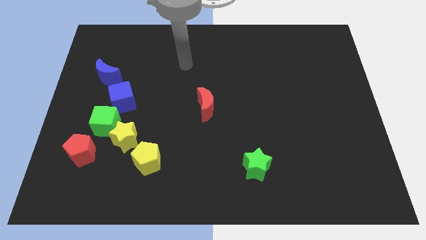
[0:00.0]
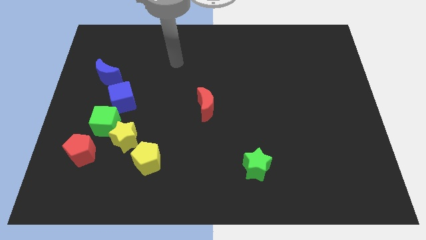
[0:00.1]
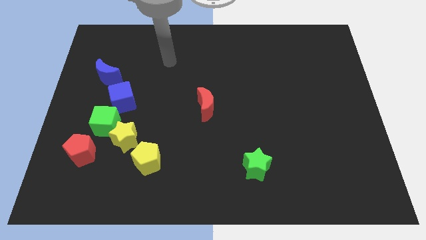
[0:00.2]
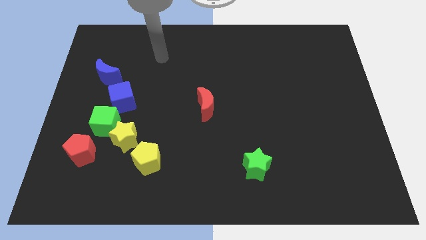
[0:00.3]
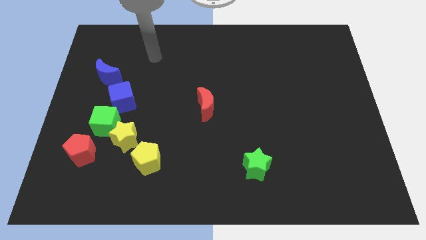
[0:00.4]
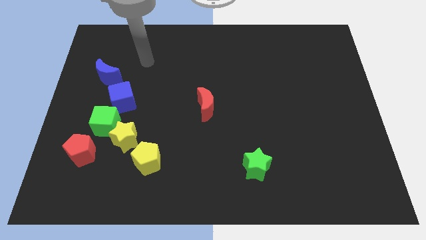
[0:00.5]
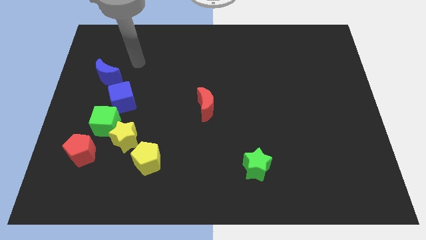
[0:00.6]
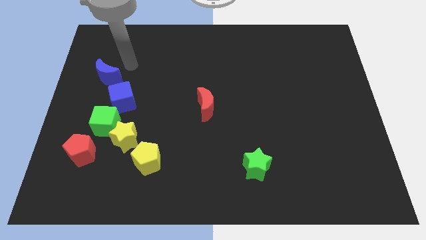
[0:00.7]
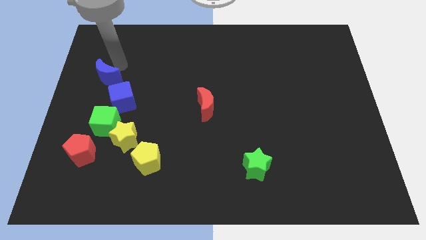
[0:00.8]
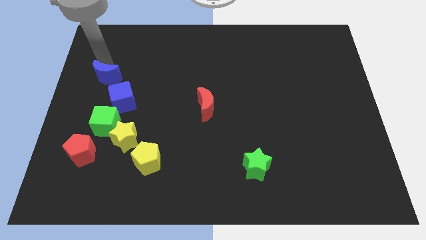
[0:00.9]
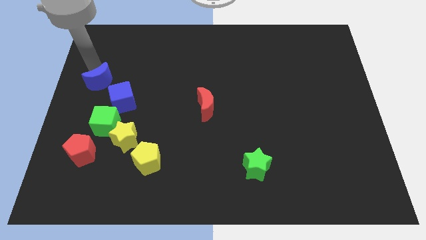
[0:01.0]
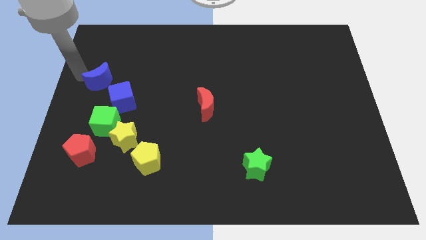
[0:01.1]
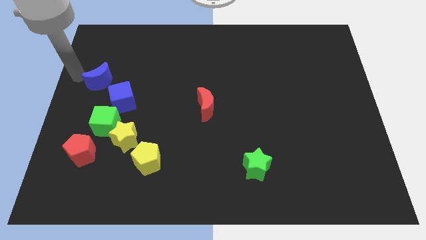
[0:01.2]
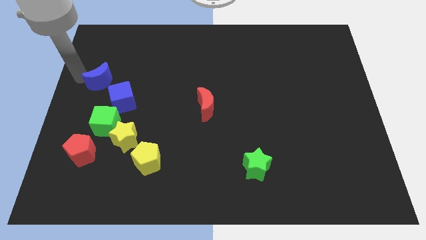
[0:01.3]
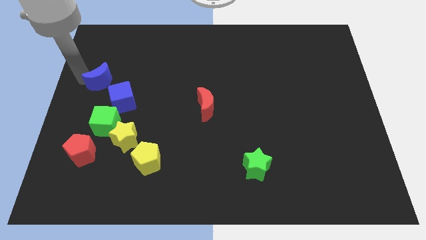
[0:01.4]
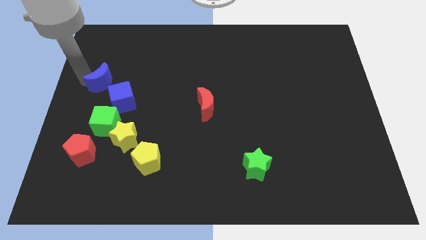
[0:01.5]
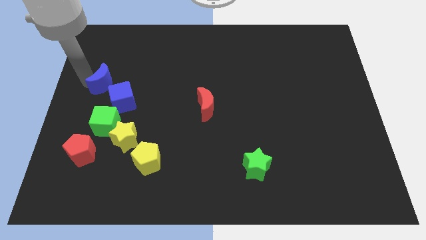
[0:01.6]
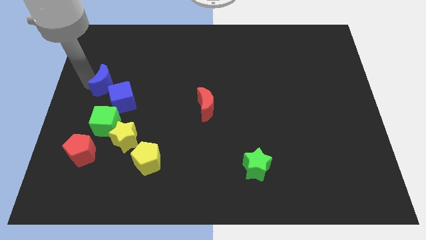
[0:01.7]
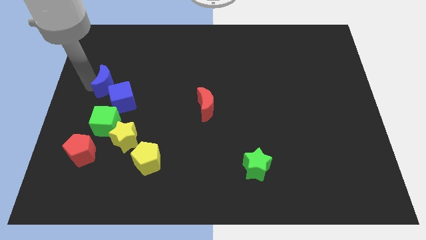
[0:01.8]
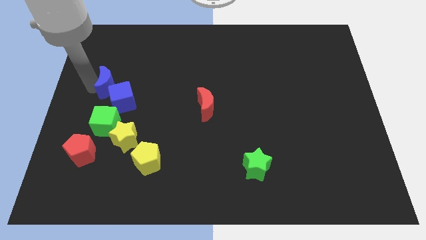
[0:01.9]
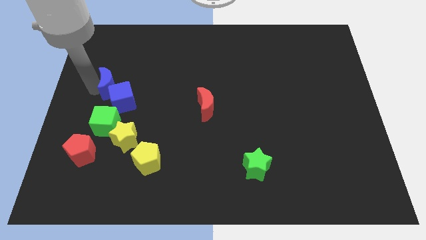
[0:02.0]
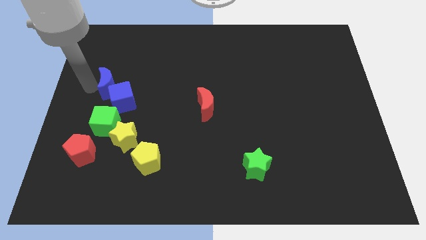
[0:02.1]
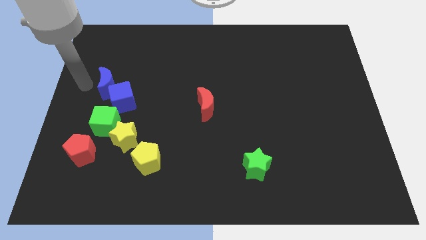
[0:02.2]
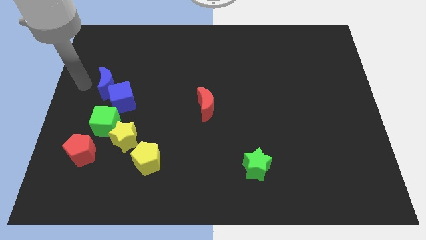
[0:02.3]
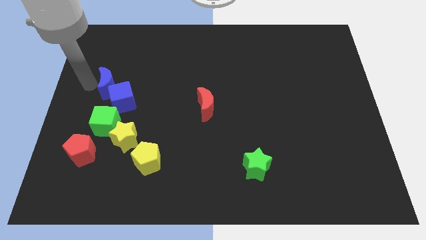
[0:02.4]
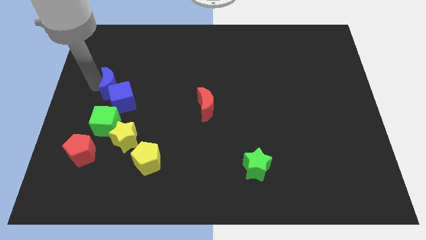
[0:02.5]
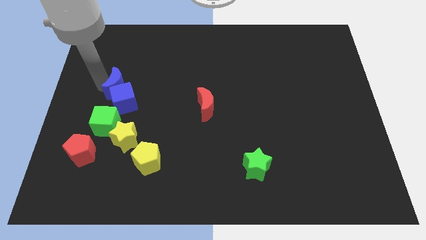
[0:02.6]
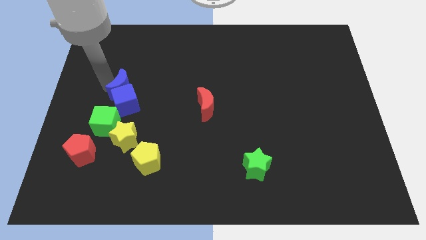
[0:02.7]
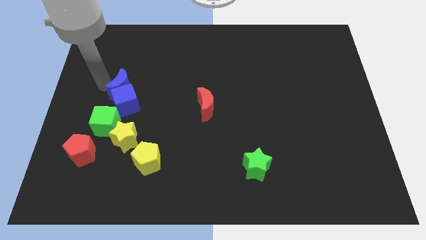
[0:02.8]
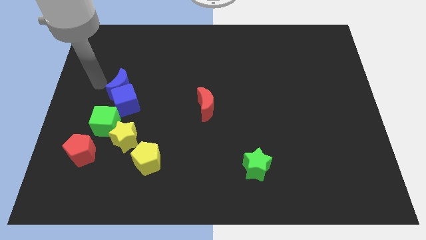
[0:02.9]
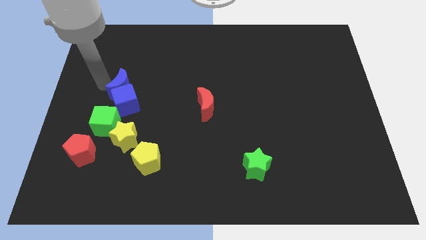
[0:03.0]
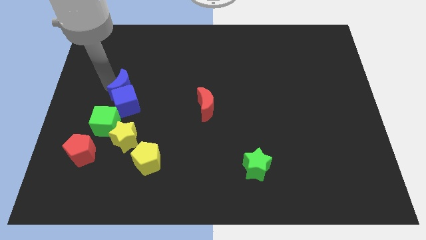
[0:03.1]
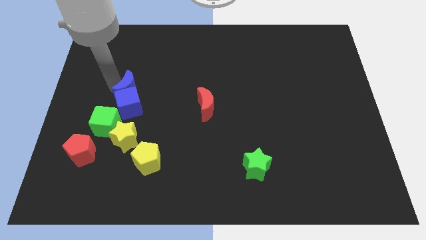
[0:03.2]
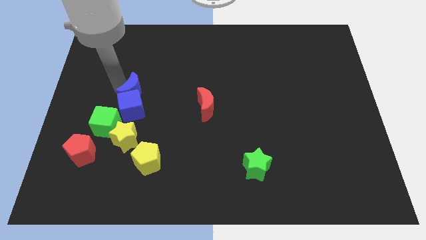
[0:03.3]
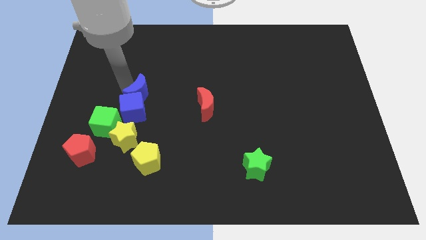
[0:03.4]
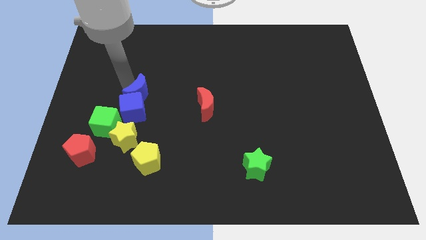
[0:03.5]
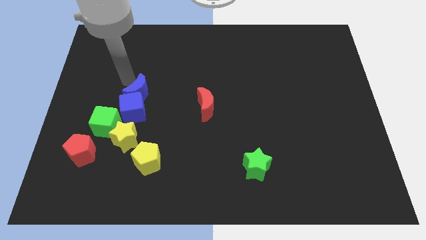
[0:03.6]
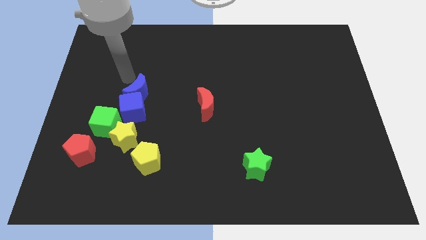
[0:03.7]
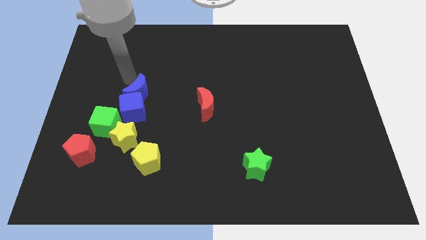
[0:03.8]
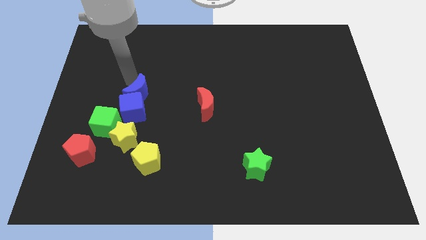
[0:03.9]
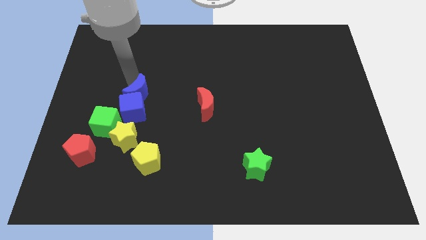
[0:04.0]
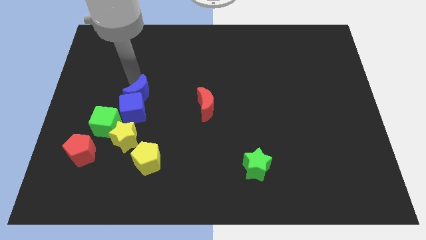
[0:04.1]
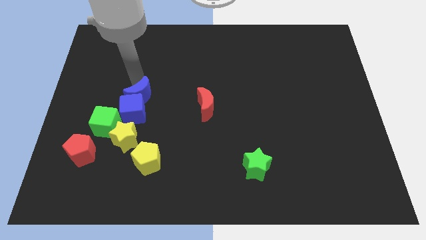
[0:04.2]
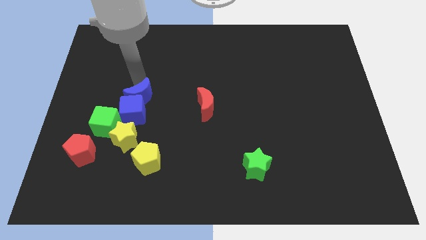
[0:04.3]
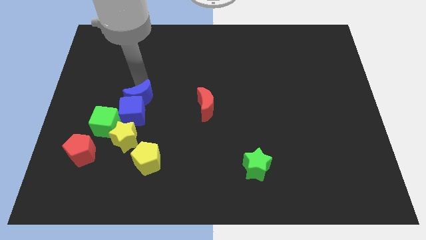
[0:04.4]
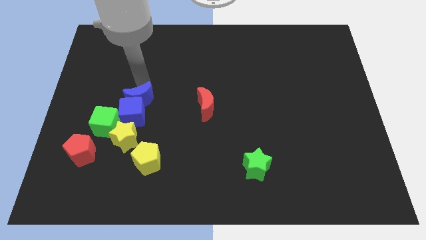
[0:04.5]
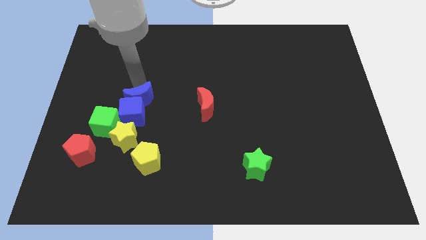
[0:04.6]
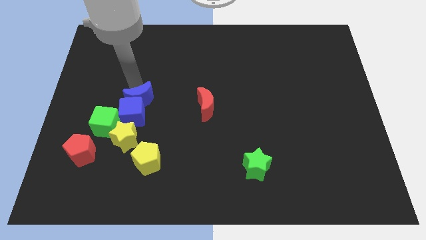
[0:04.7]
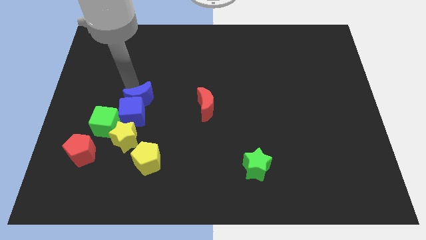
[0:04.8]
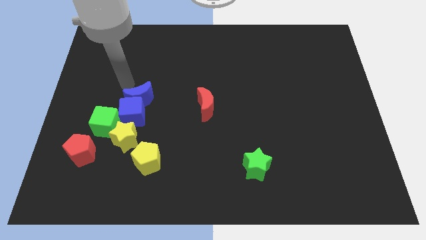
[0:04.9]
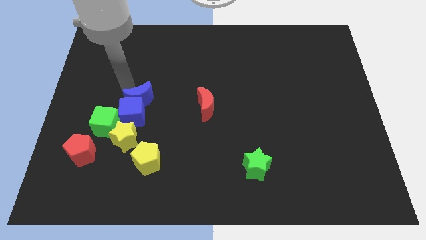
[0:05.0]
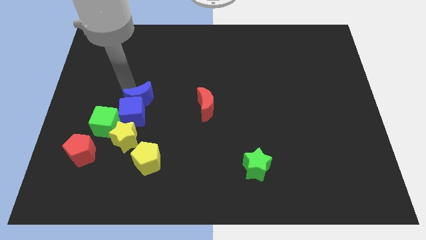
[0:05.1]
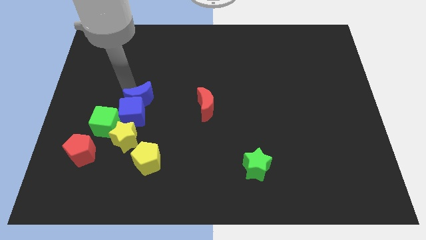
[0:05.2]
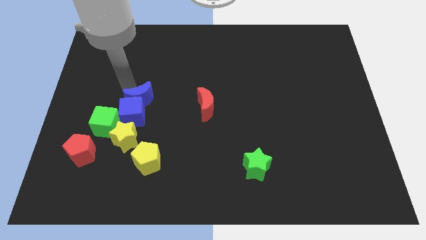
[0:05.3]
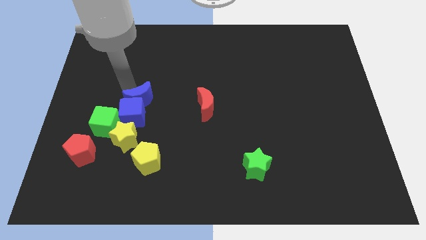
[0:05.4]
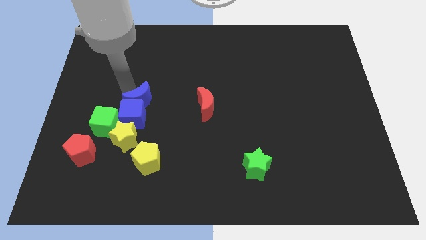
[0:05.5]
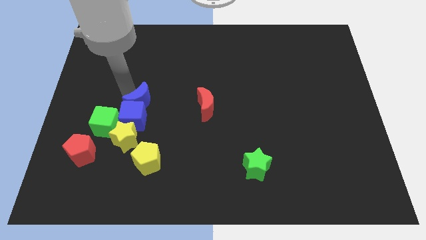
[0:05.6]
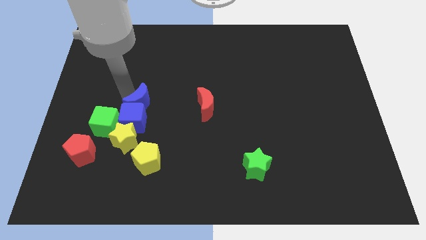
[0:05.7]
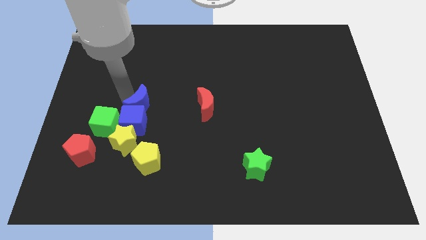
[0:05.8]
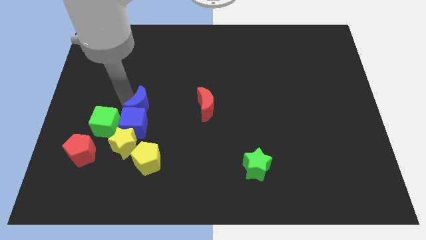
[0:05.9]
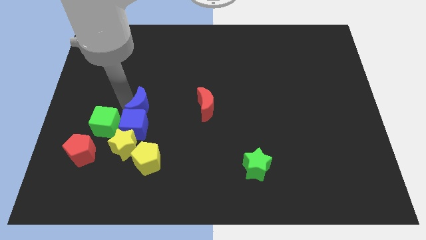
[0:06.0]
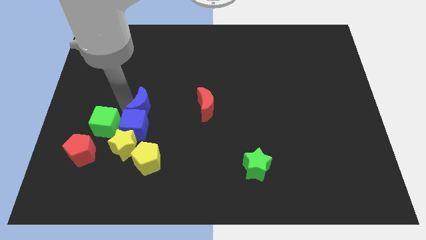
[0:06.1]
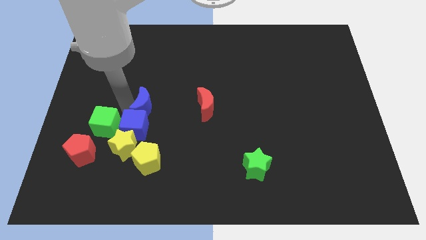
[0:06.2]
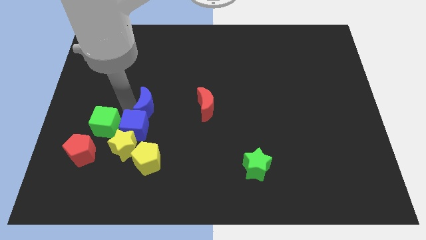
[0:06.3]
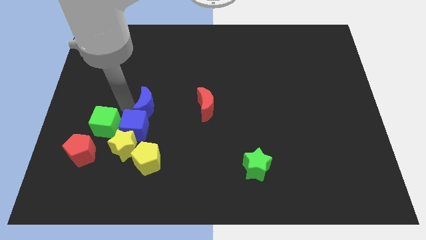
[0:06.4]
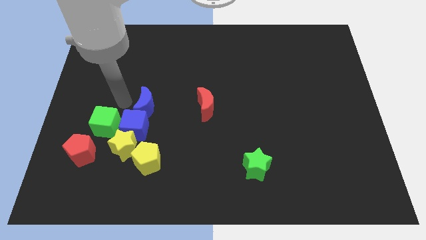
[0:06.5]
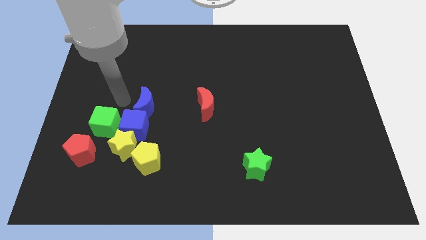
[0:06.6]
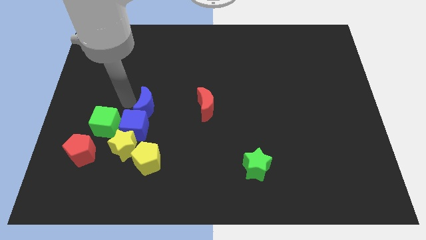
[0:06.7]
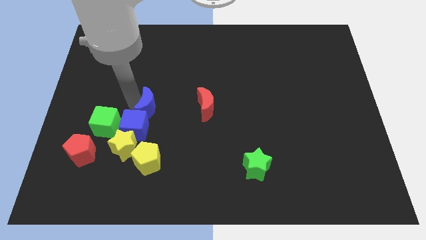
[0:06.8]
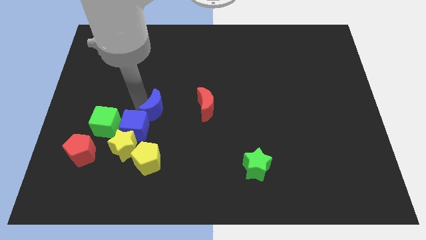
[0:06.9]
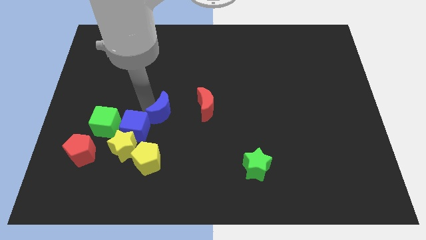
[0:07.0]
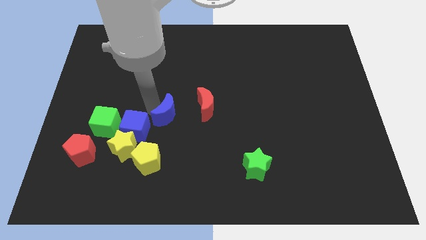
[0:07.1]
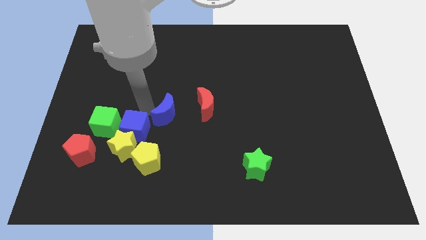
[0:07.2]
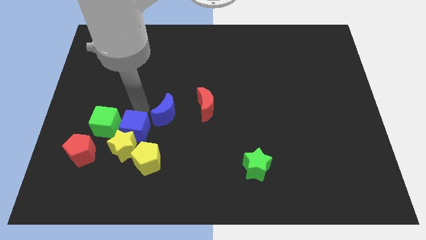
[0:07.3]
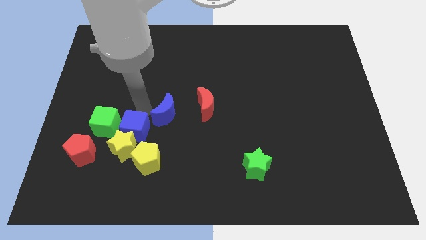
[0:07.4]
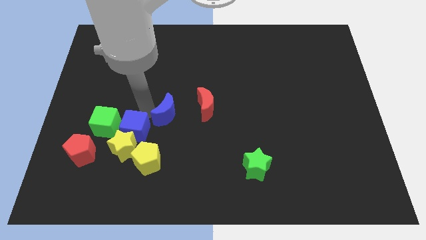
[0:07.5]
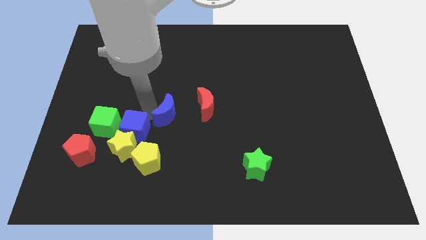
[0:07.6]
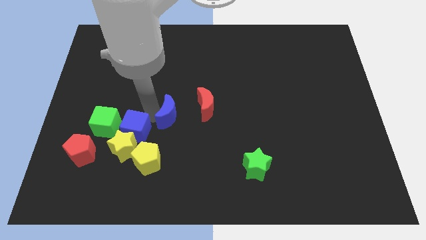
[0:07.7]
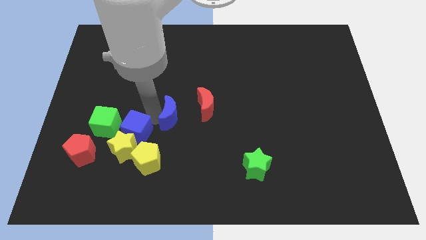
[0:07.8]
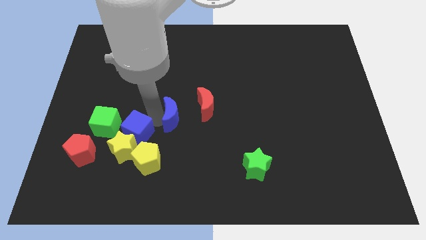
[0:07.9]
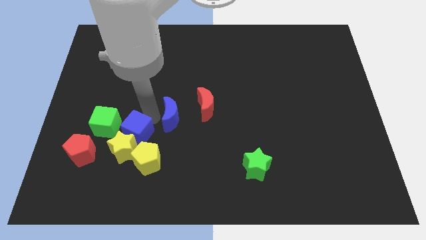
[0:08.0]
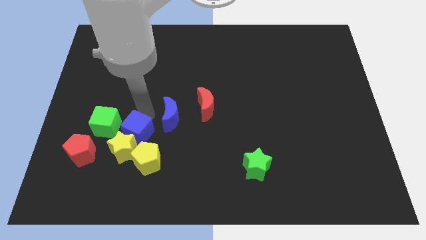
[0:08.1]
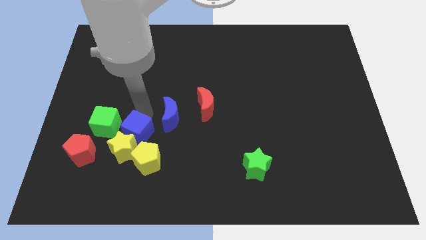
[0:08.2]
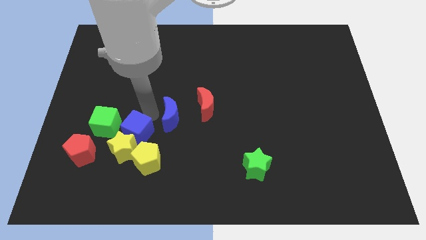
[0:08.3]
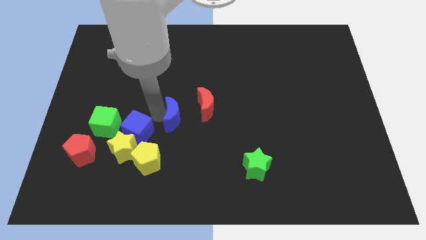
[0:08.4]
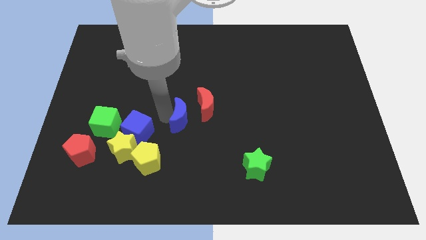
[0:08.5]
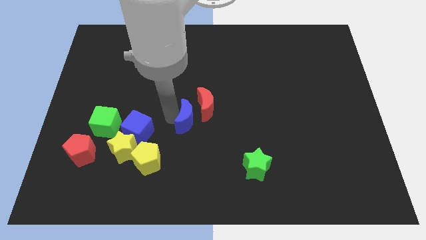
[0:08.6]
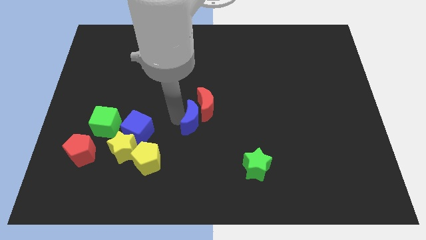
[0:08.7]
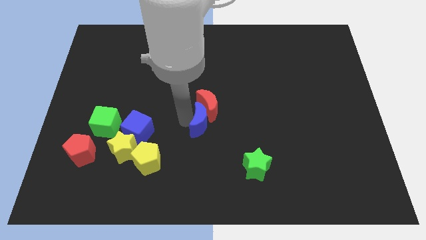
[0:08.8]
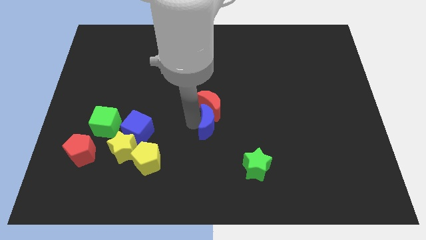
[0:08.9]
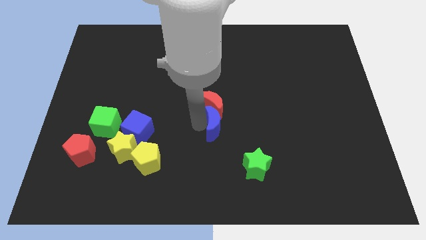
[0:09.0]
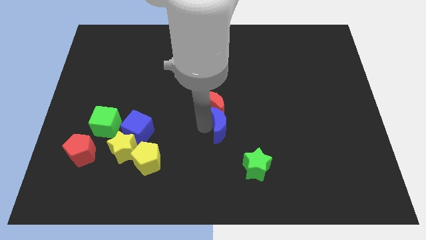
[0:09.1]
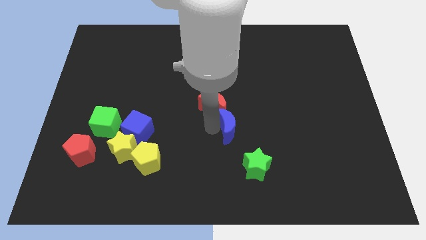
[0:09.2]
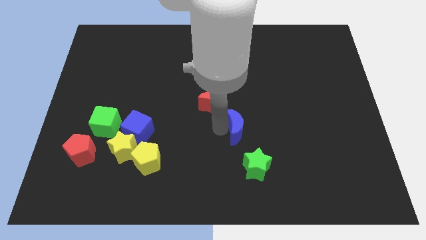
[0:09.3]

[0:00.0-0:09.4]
push the blue moon above the green star
